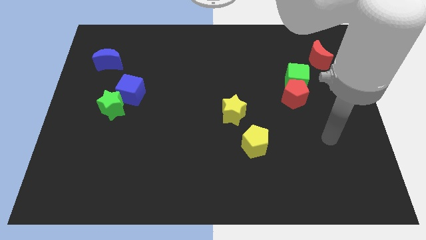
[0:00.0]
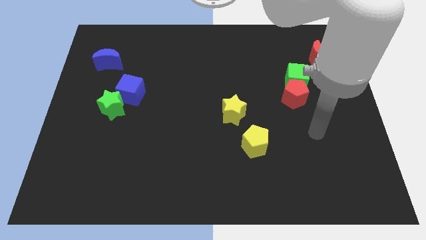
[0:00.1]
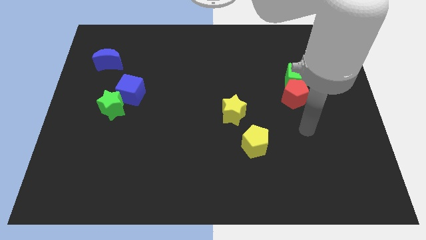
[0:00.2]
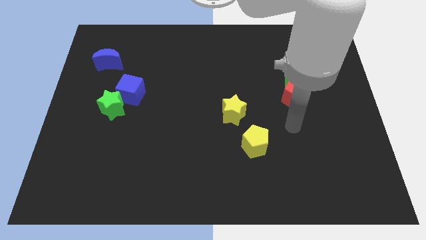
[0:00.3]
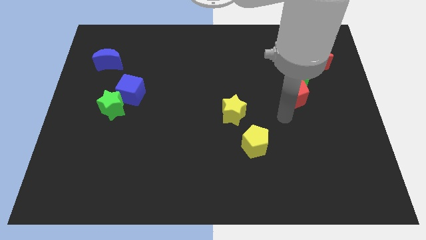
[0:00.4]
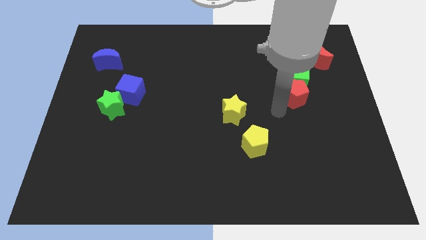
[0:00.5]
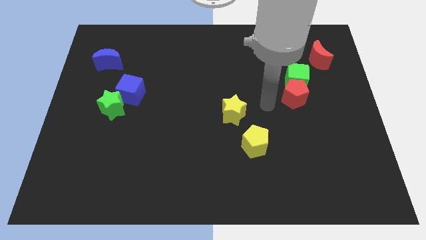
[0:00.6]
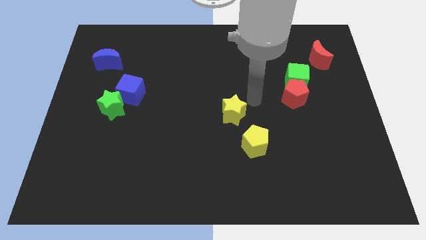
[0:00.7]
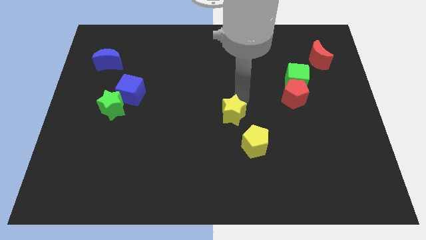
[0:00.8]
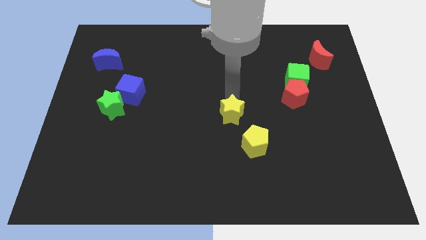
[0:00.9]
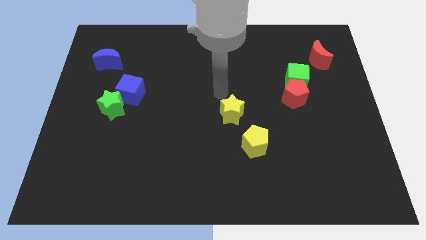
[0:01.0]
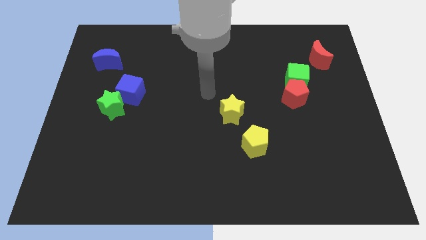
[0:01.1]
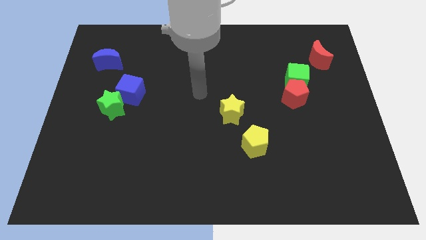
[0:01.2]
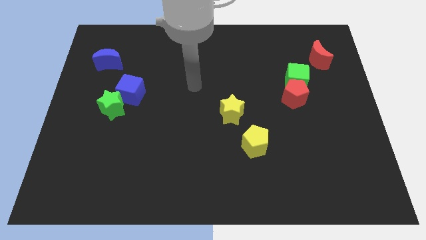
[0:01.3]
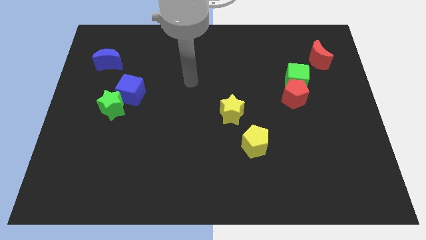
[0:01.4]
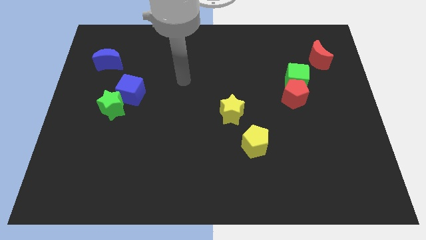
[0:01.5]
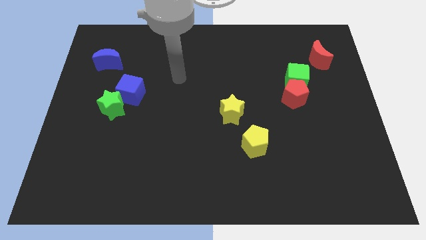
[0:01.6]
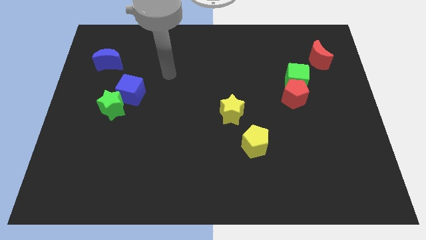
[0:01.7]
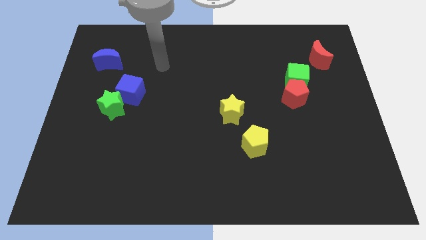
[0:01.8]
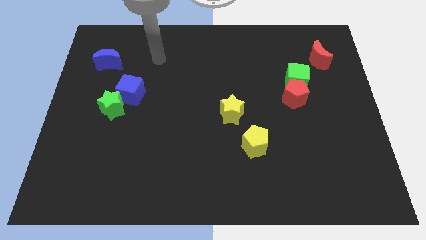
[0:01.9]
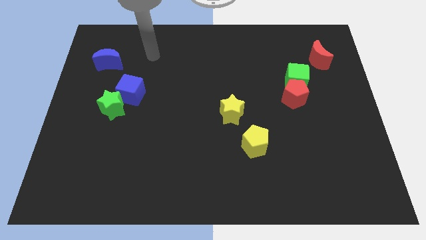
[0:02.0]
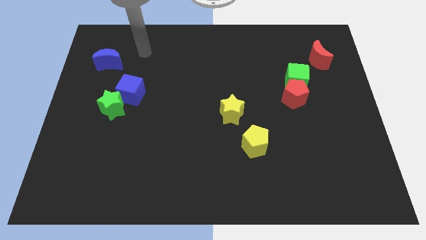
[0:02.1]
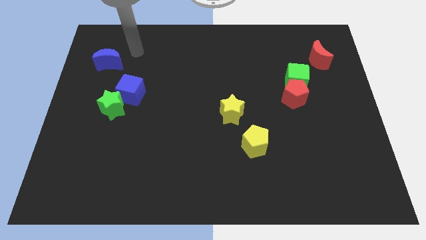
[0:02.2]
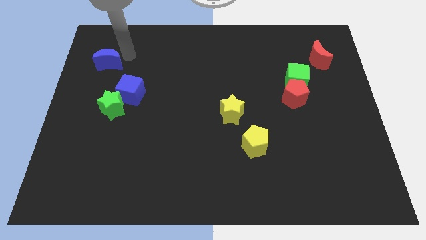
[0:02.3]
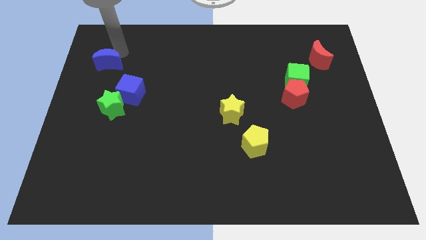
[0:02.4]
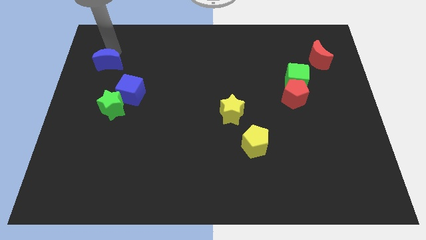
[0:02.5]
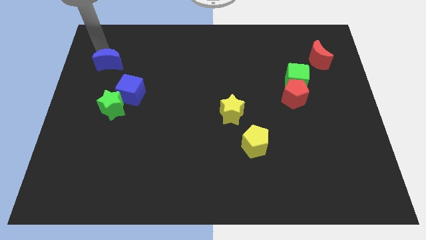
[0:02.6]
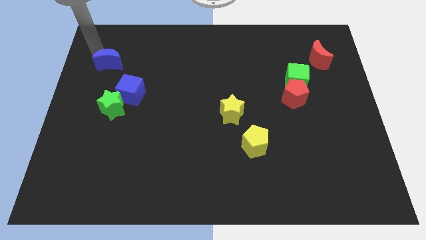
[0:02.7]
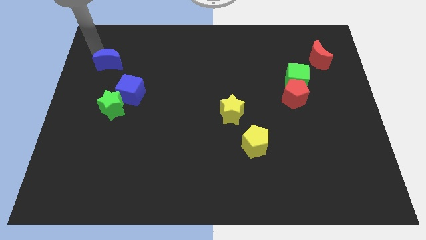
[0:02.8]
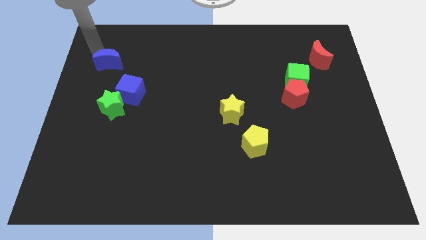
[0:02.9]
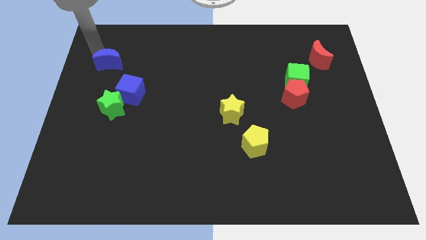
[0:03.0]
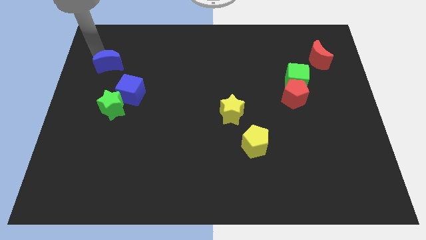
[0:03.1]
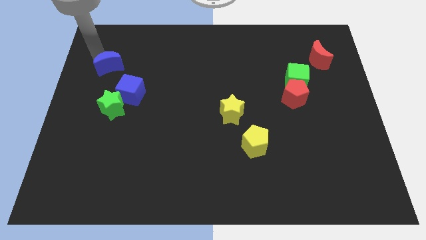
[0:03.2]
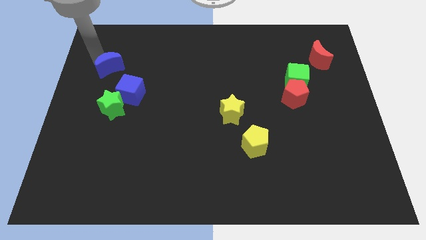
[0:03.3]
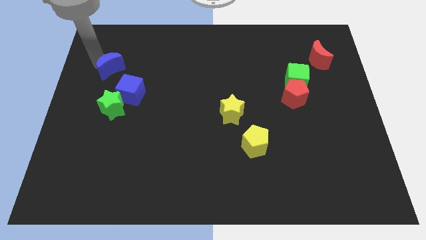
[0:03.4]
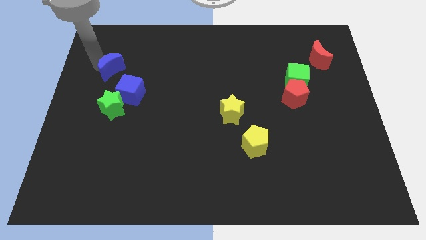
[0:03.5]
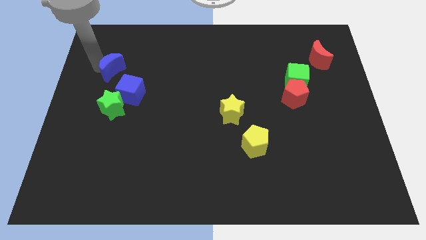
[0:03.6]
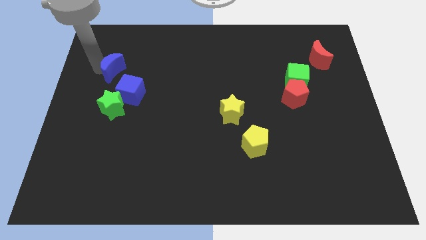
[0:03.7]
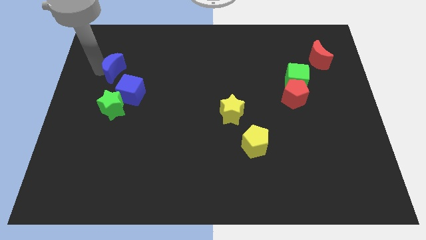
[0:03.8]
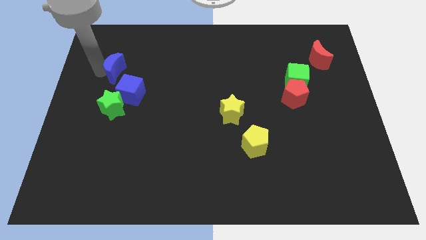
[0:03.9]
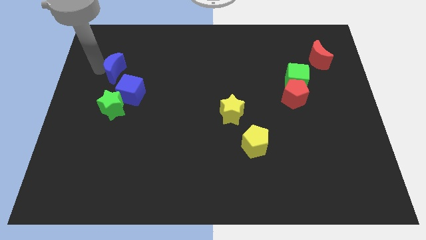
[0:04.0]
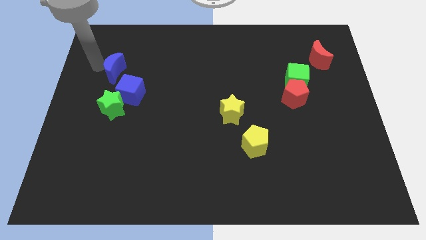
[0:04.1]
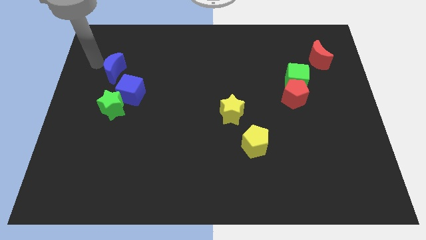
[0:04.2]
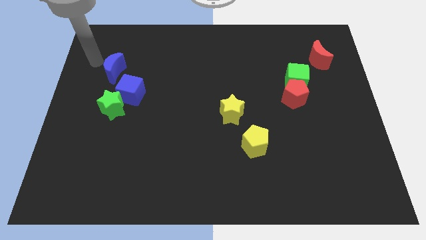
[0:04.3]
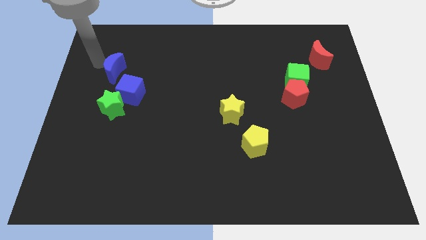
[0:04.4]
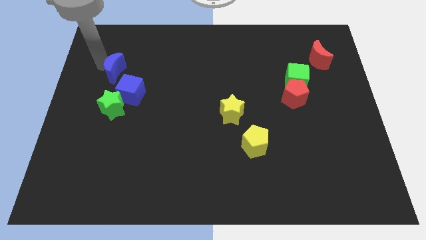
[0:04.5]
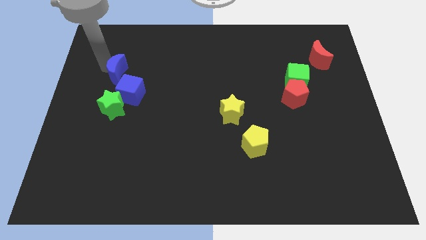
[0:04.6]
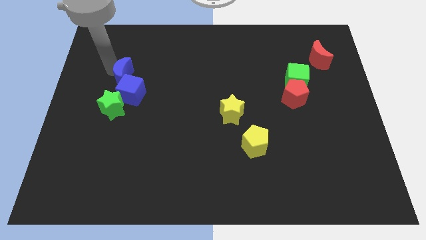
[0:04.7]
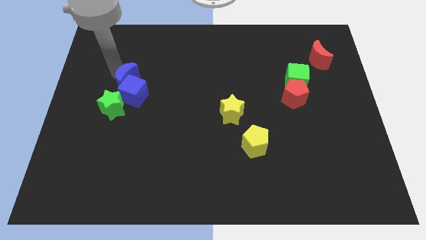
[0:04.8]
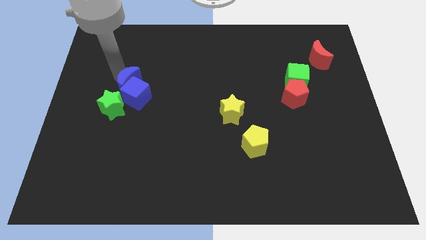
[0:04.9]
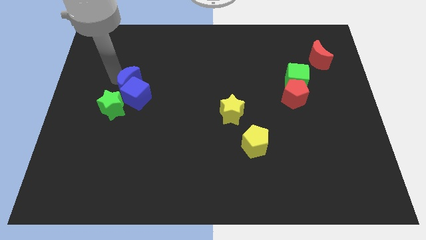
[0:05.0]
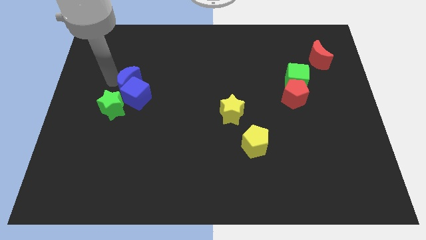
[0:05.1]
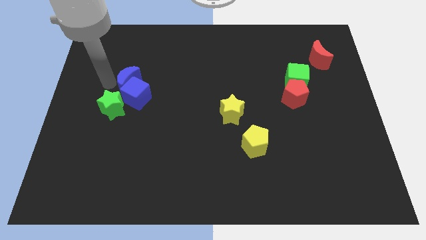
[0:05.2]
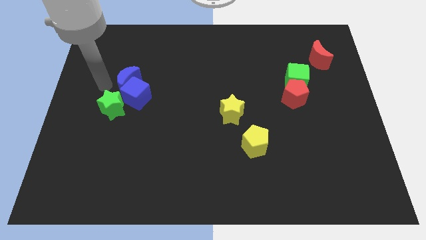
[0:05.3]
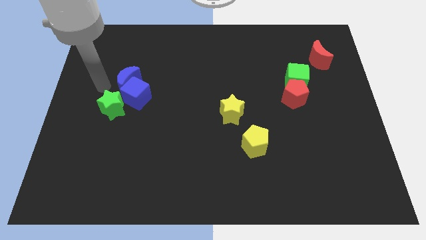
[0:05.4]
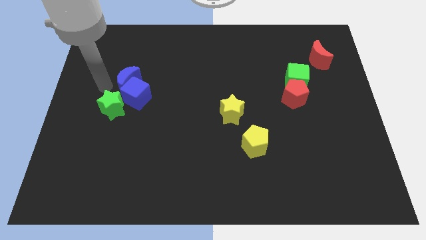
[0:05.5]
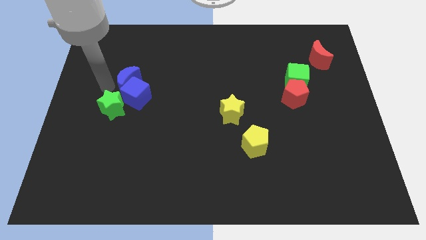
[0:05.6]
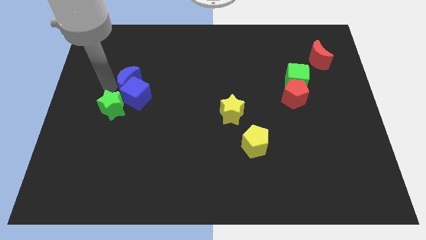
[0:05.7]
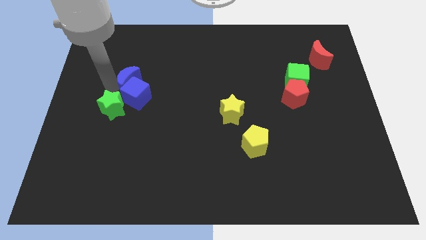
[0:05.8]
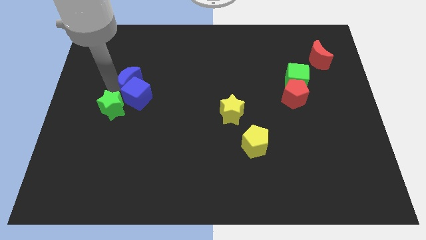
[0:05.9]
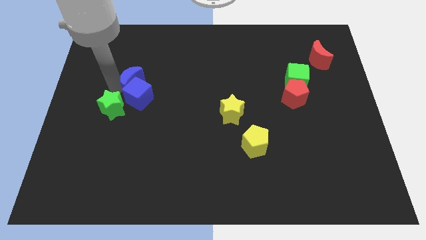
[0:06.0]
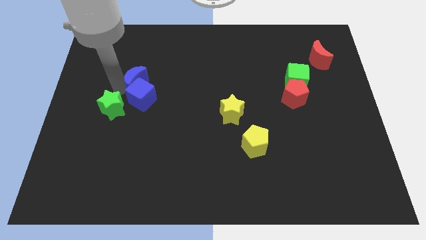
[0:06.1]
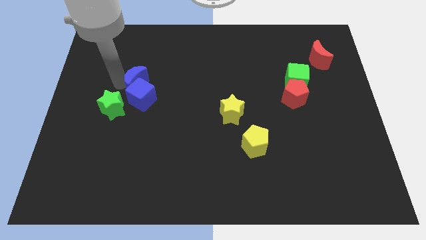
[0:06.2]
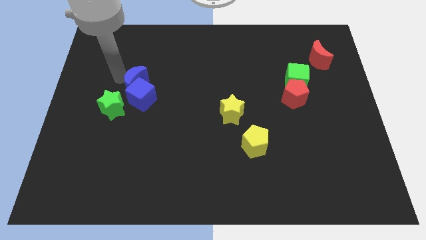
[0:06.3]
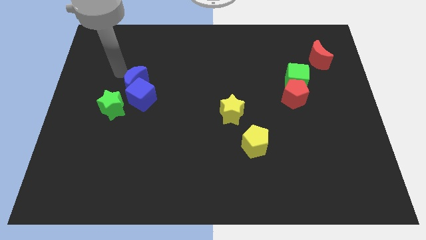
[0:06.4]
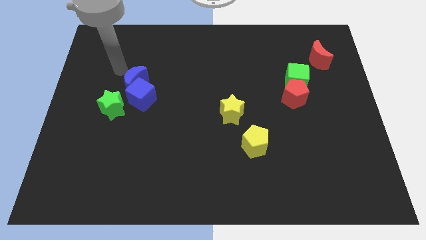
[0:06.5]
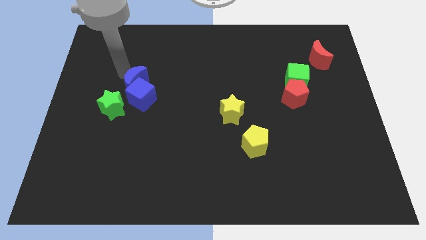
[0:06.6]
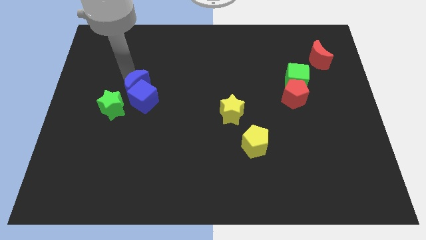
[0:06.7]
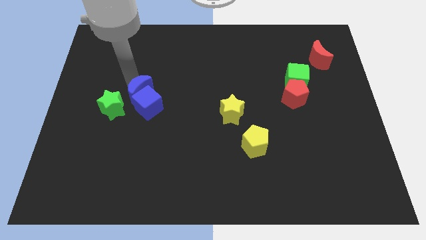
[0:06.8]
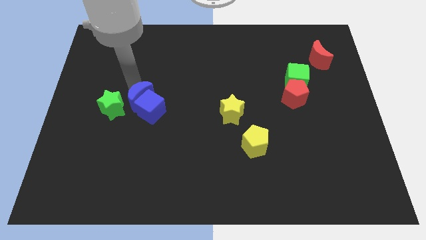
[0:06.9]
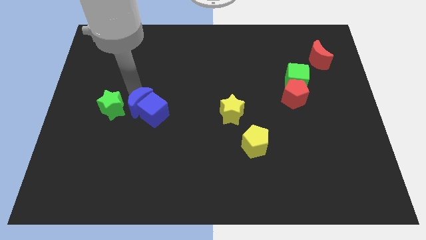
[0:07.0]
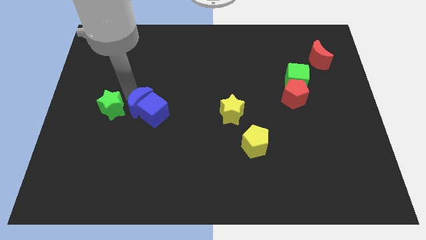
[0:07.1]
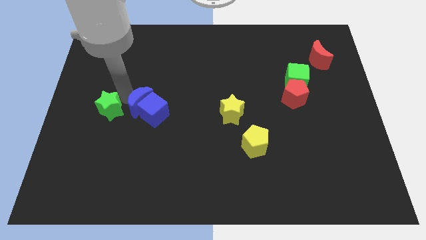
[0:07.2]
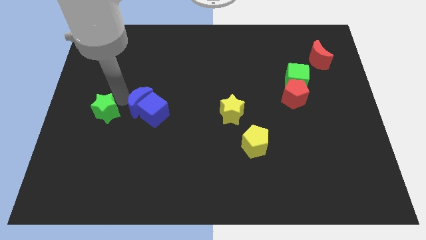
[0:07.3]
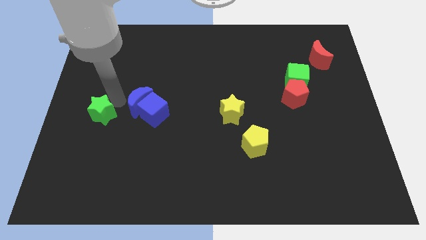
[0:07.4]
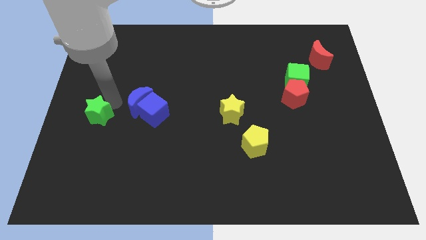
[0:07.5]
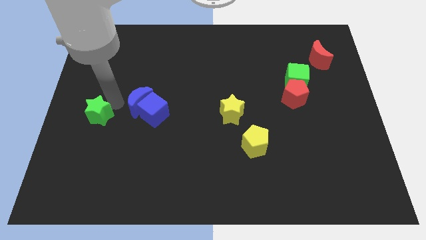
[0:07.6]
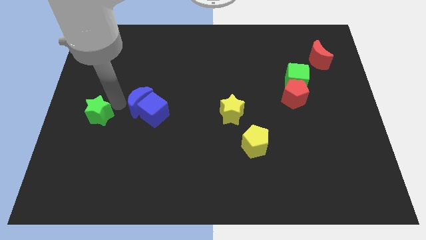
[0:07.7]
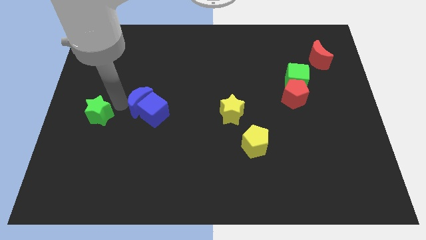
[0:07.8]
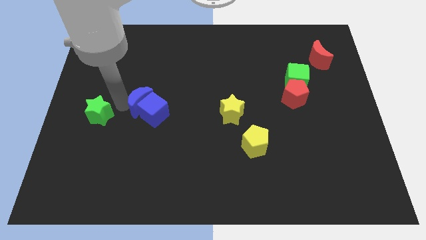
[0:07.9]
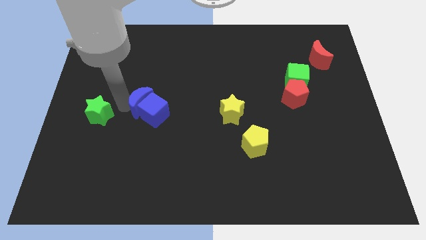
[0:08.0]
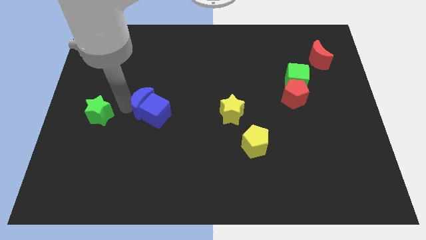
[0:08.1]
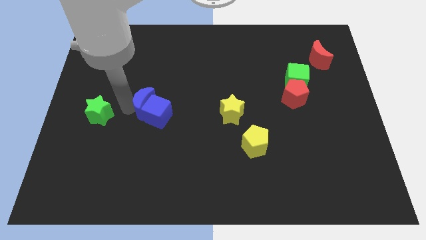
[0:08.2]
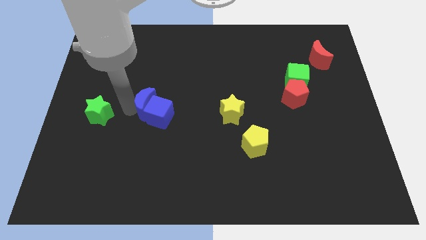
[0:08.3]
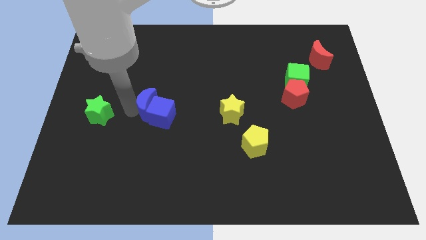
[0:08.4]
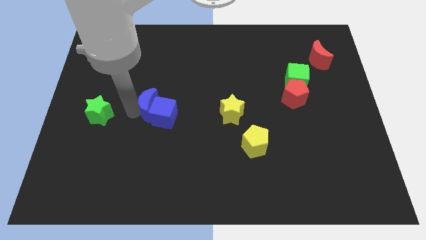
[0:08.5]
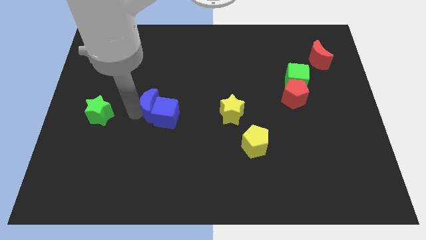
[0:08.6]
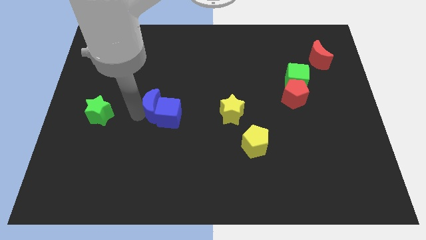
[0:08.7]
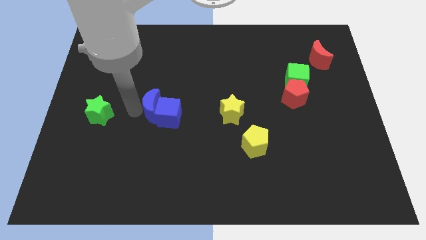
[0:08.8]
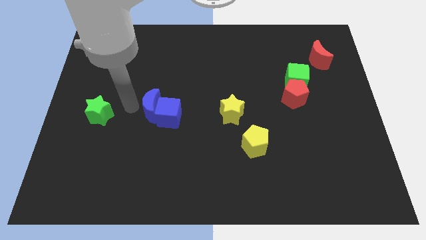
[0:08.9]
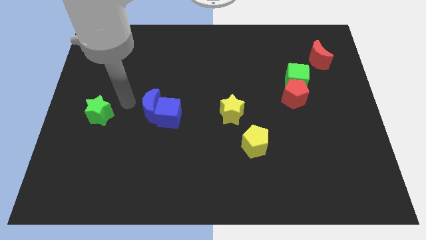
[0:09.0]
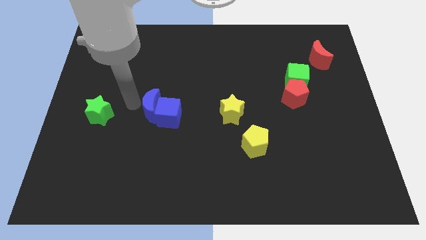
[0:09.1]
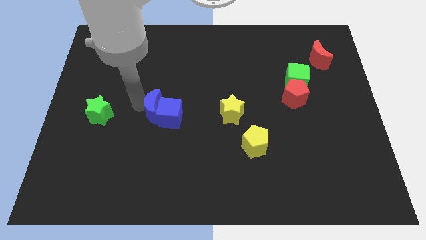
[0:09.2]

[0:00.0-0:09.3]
move the blue moon diagonally down and right
